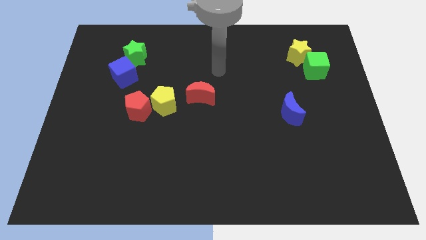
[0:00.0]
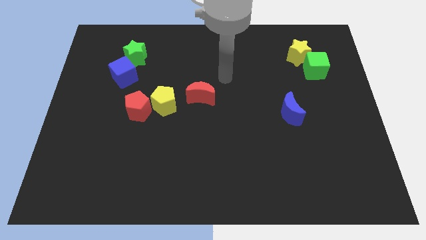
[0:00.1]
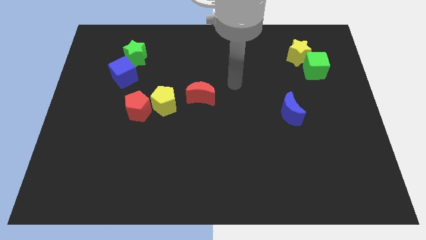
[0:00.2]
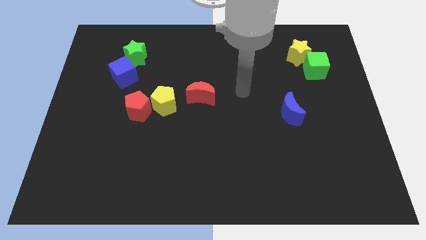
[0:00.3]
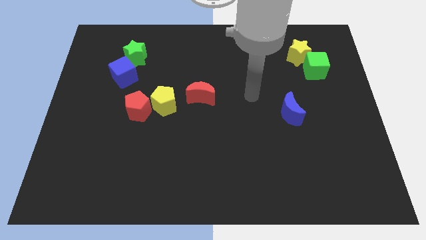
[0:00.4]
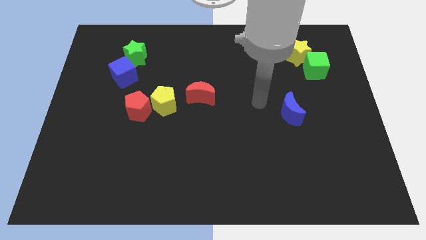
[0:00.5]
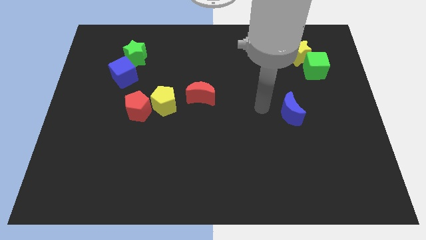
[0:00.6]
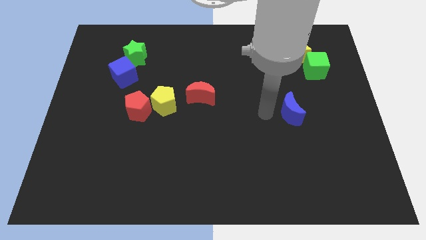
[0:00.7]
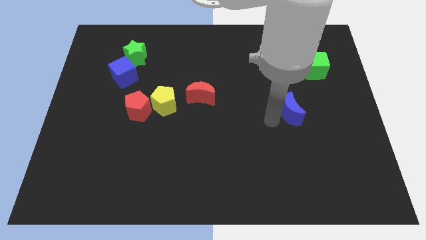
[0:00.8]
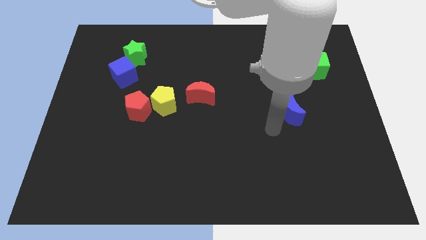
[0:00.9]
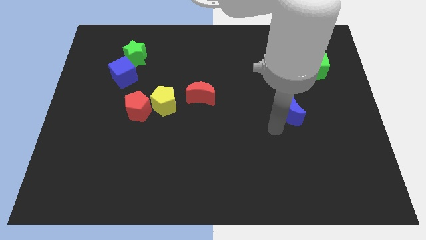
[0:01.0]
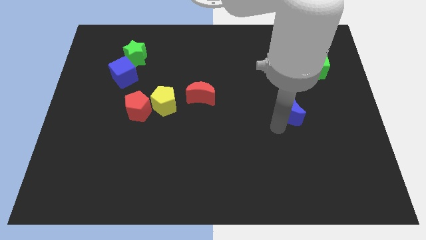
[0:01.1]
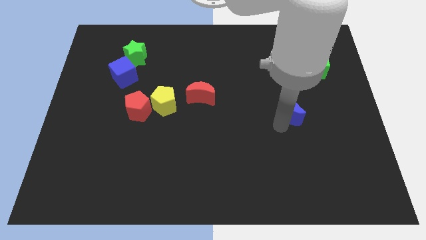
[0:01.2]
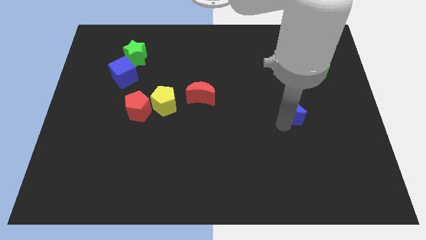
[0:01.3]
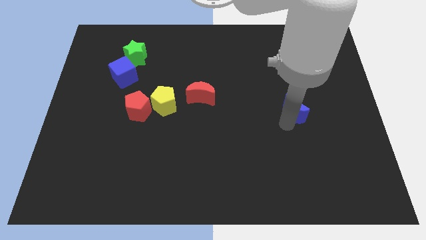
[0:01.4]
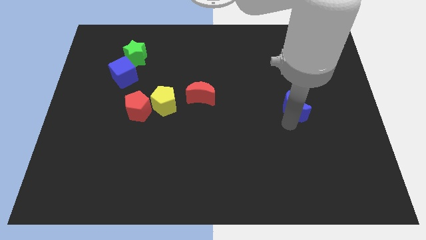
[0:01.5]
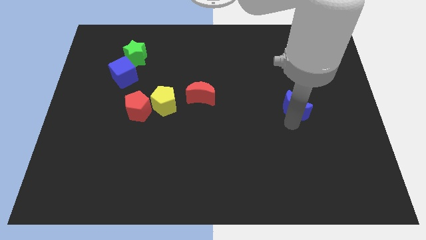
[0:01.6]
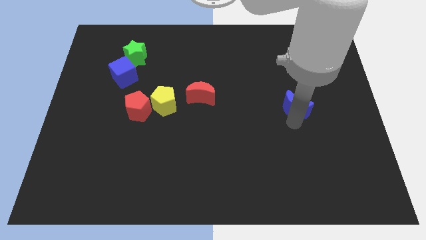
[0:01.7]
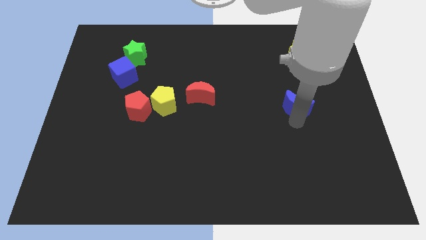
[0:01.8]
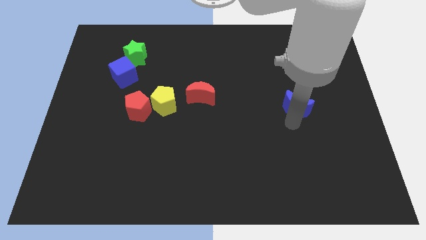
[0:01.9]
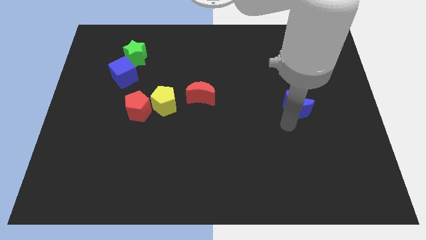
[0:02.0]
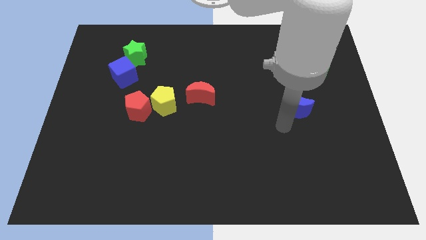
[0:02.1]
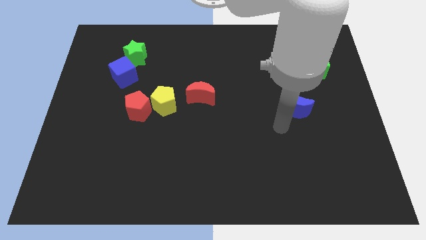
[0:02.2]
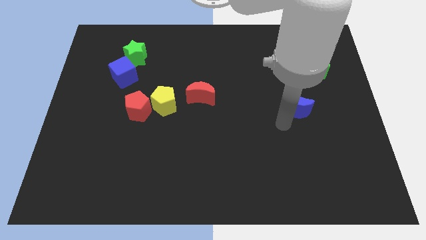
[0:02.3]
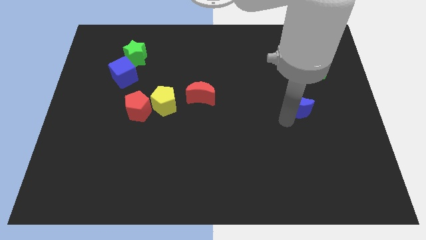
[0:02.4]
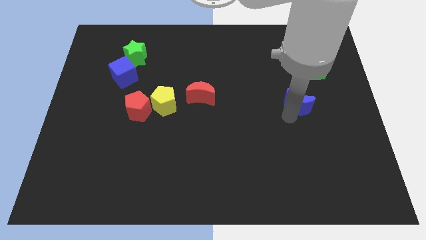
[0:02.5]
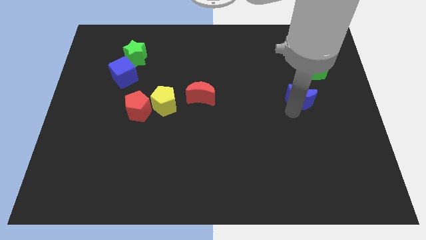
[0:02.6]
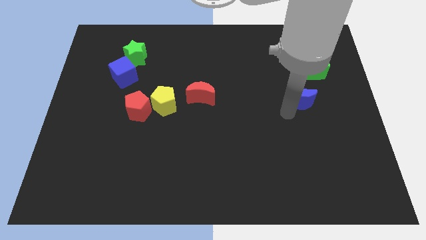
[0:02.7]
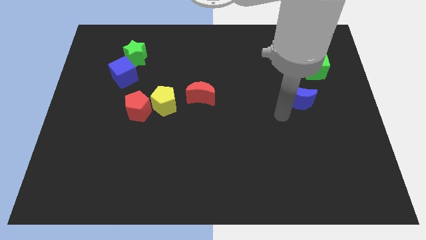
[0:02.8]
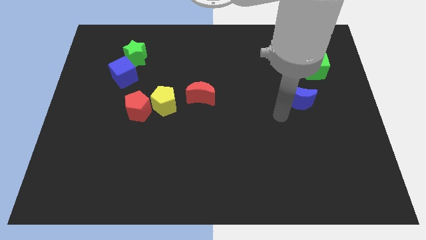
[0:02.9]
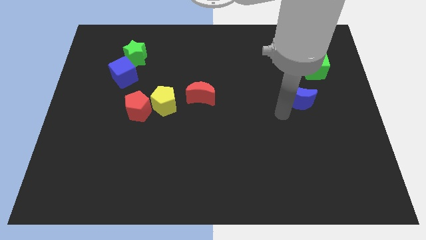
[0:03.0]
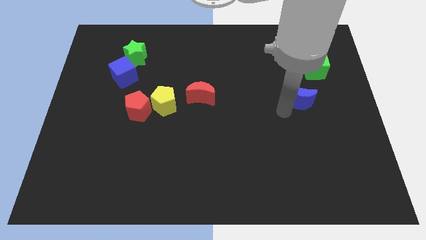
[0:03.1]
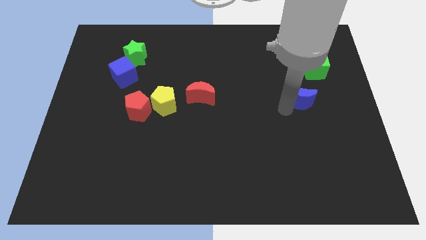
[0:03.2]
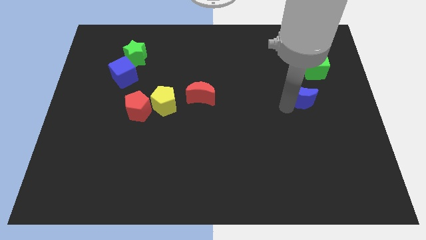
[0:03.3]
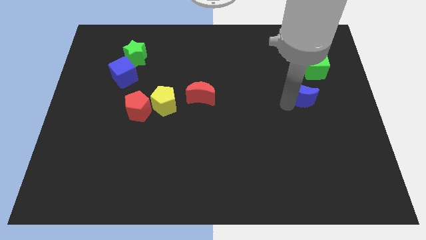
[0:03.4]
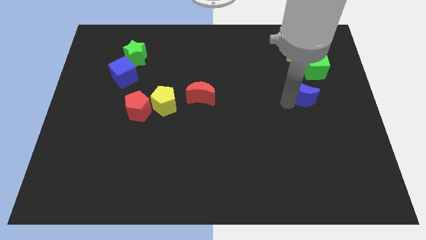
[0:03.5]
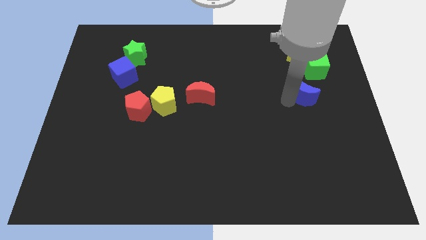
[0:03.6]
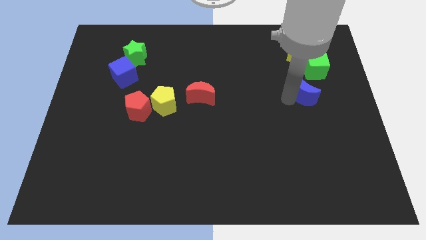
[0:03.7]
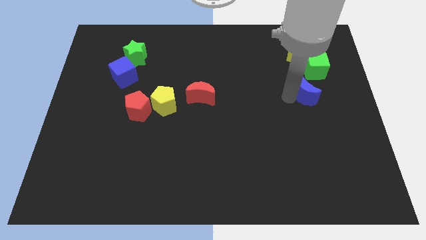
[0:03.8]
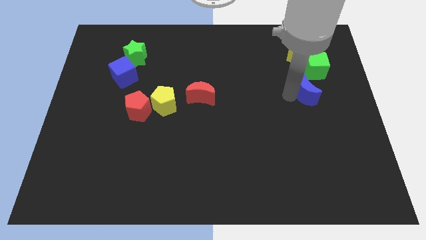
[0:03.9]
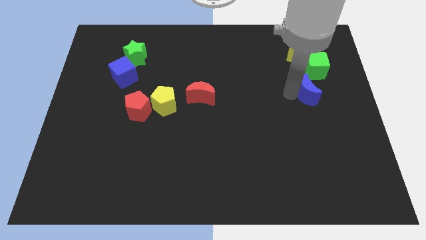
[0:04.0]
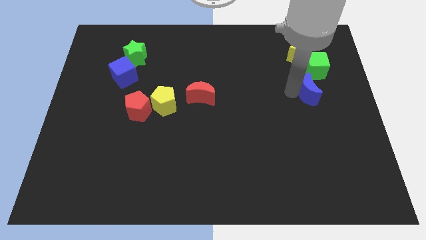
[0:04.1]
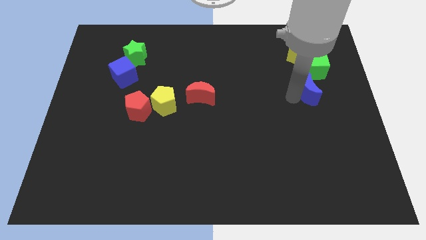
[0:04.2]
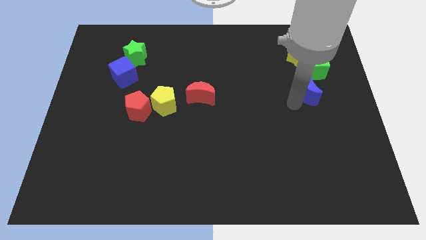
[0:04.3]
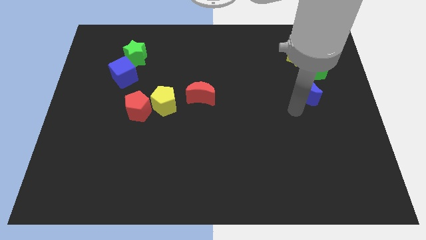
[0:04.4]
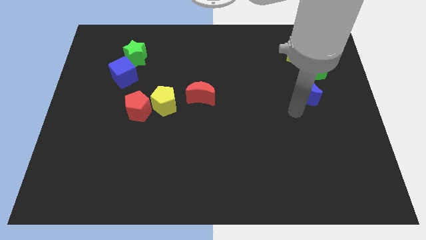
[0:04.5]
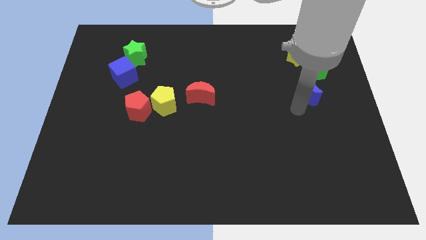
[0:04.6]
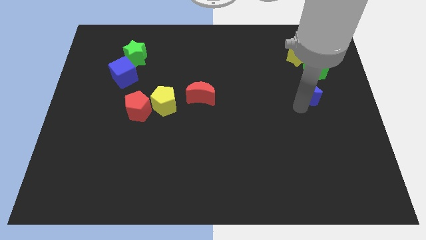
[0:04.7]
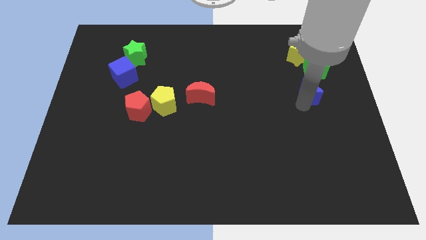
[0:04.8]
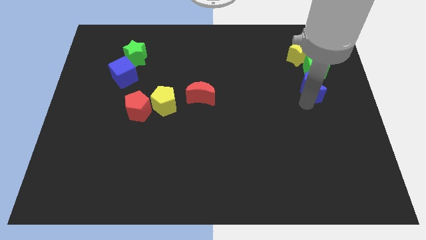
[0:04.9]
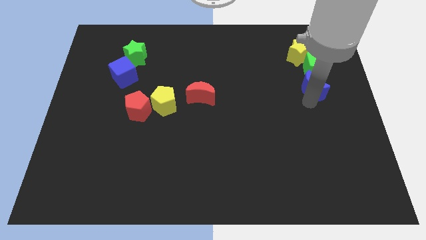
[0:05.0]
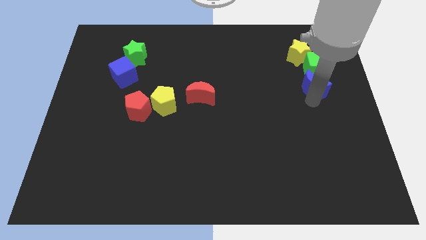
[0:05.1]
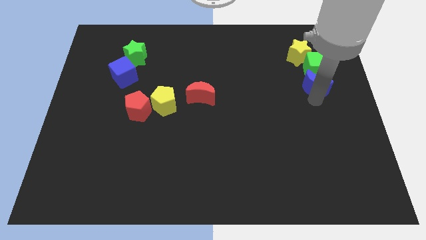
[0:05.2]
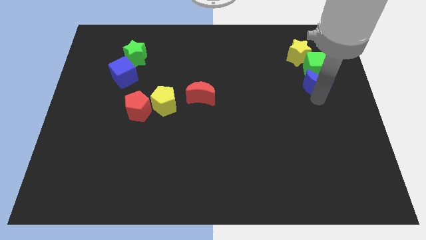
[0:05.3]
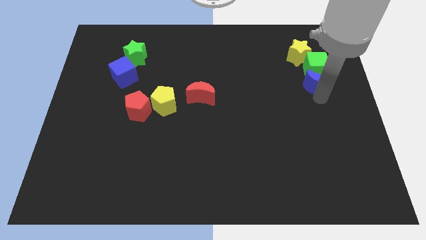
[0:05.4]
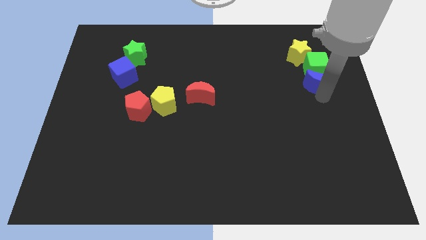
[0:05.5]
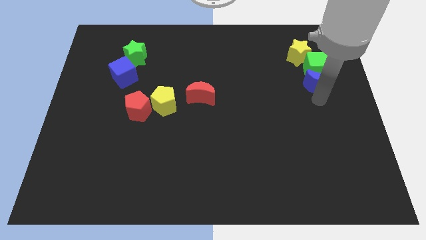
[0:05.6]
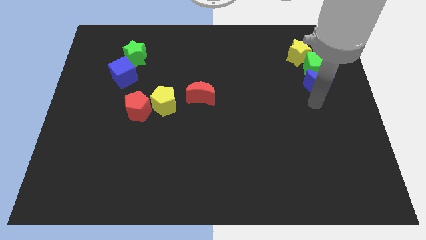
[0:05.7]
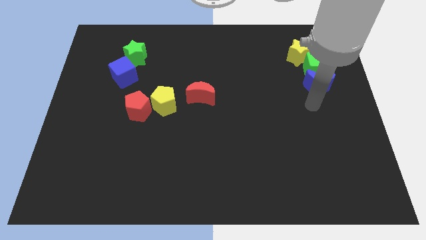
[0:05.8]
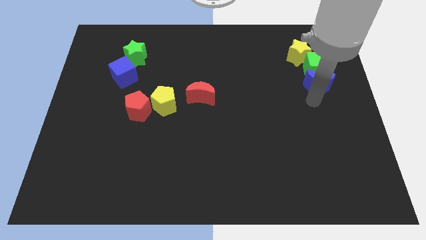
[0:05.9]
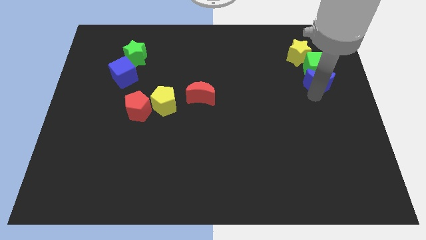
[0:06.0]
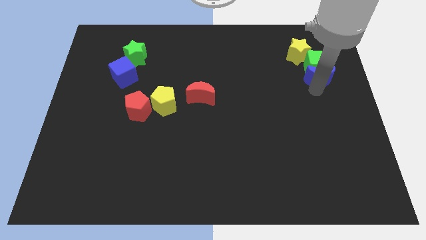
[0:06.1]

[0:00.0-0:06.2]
put the blue moon to the bottom right of the yellow star

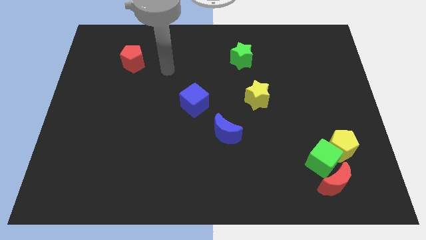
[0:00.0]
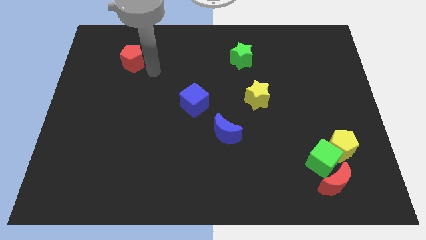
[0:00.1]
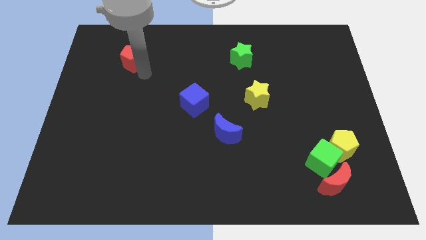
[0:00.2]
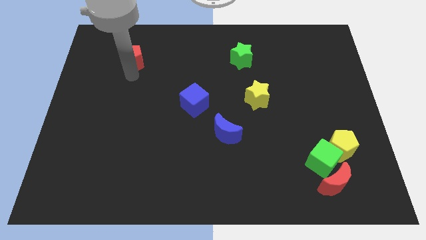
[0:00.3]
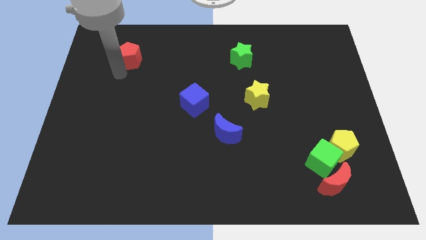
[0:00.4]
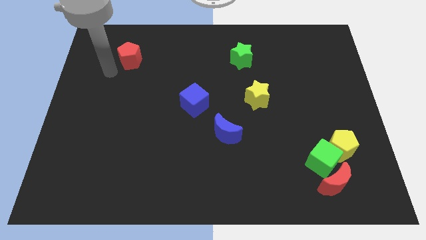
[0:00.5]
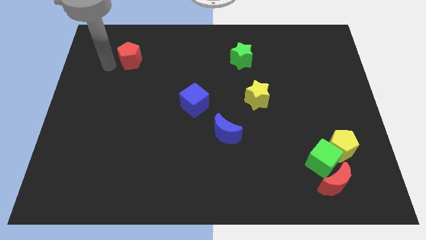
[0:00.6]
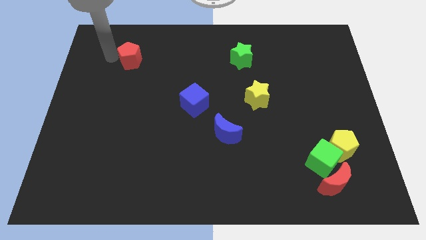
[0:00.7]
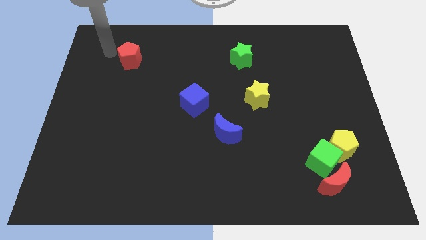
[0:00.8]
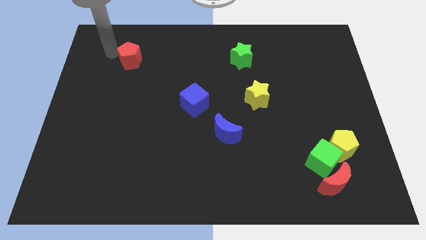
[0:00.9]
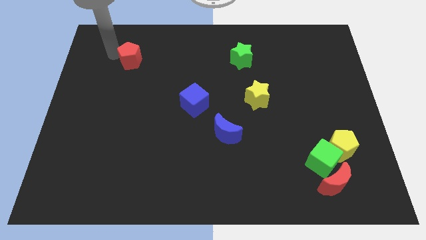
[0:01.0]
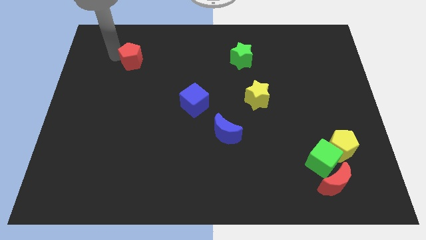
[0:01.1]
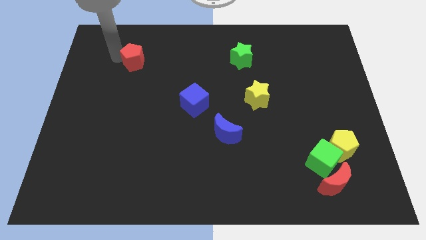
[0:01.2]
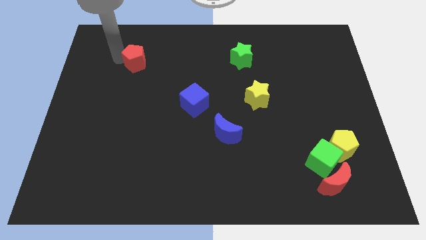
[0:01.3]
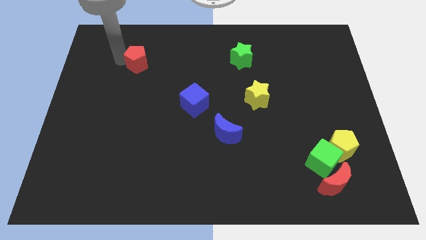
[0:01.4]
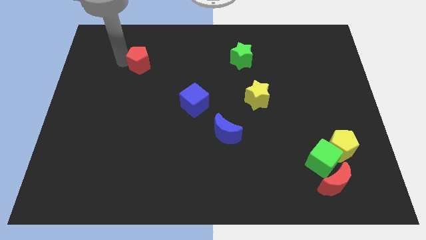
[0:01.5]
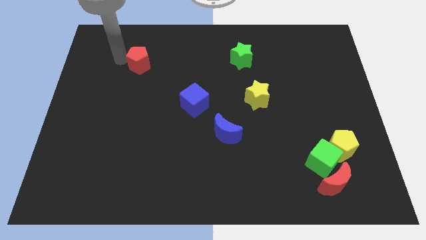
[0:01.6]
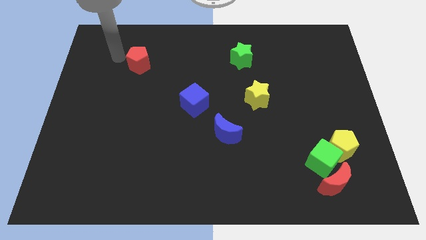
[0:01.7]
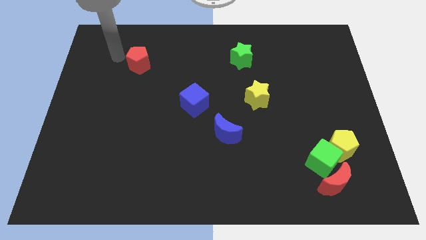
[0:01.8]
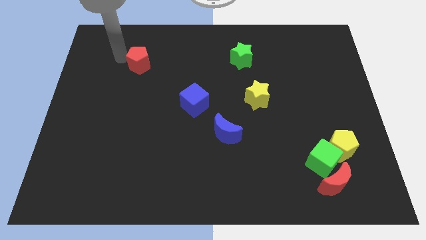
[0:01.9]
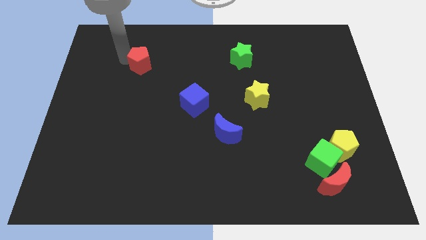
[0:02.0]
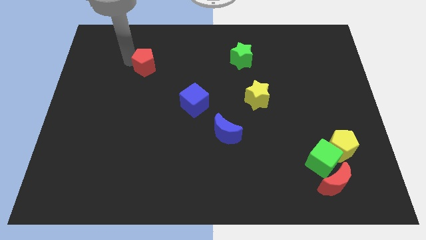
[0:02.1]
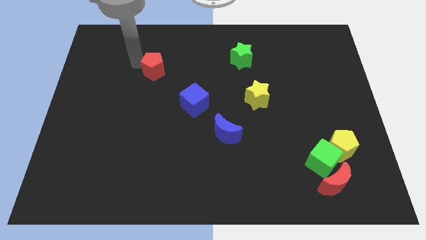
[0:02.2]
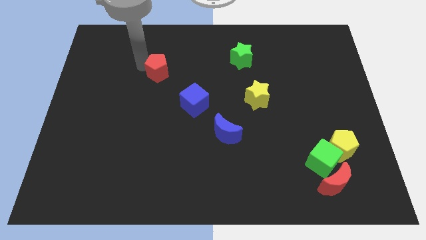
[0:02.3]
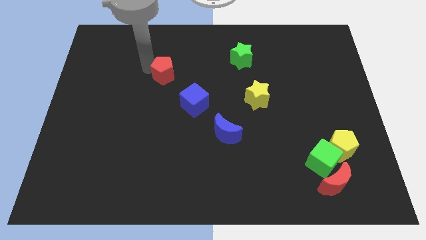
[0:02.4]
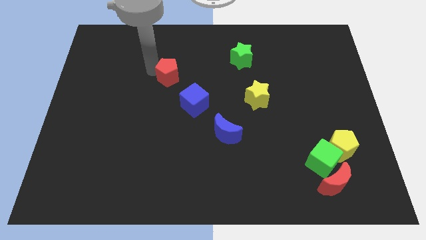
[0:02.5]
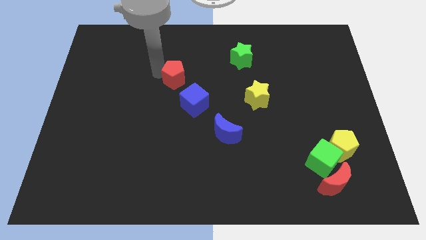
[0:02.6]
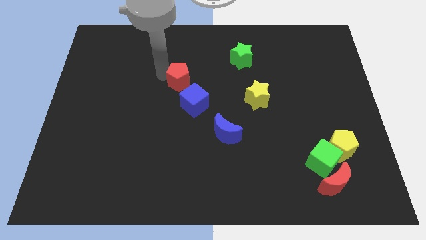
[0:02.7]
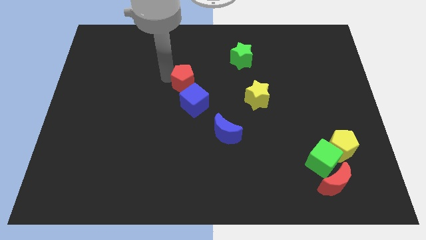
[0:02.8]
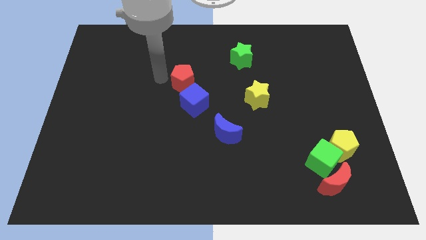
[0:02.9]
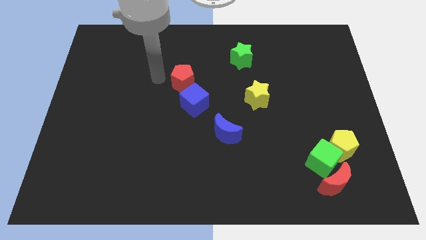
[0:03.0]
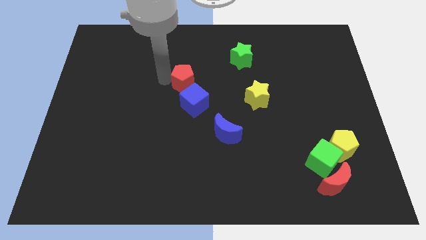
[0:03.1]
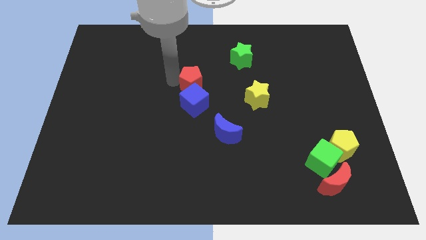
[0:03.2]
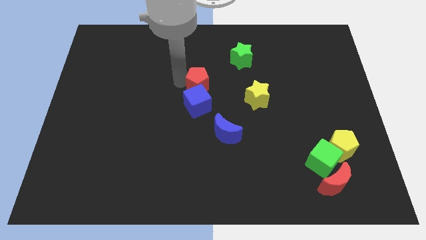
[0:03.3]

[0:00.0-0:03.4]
slide the red pentagon diagonally up and to the right of the blue cube
